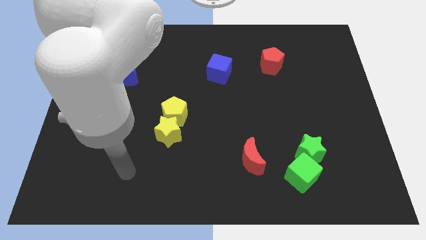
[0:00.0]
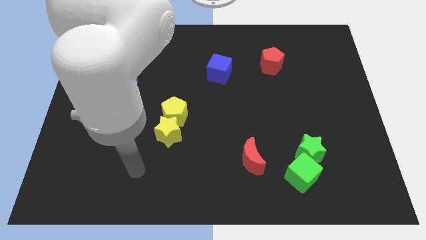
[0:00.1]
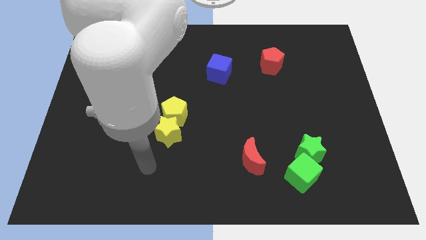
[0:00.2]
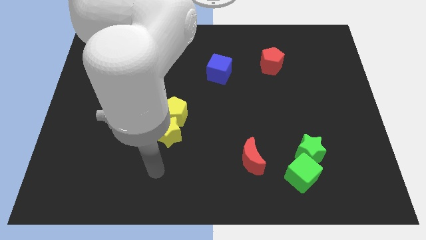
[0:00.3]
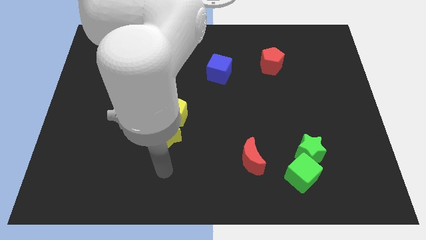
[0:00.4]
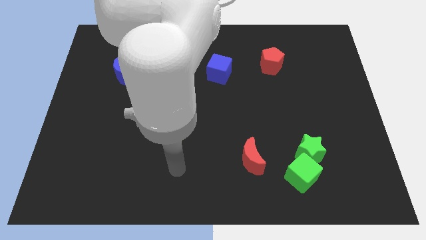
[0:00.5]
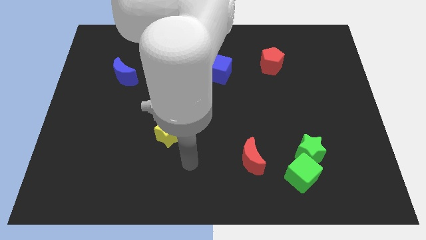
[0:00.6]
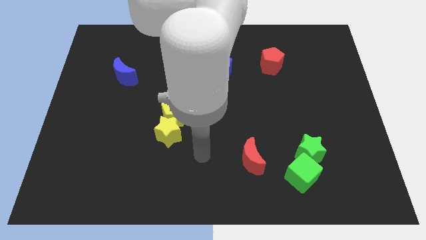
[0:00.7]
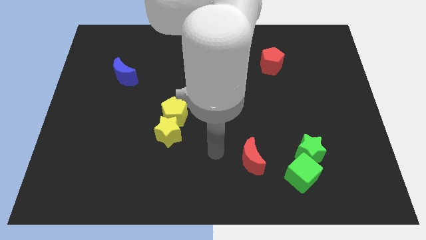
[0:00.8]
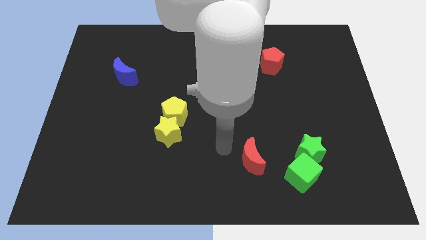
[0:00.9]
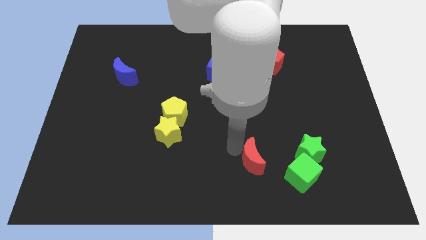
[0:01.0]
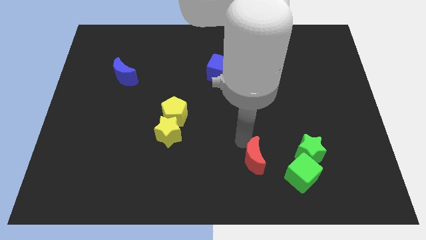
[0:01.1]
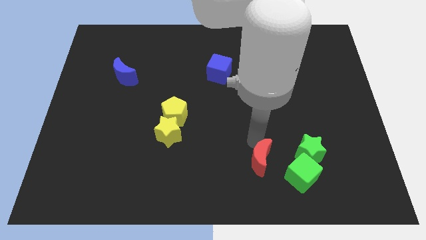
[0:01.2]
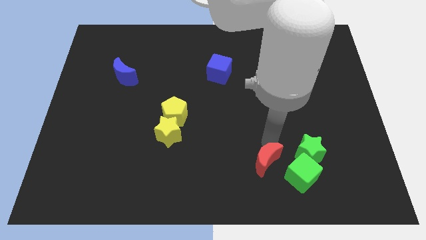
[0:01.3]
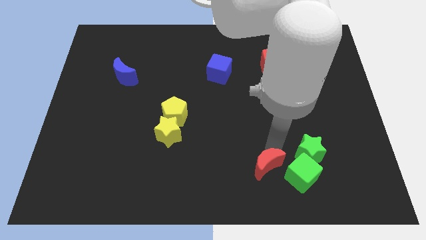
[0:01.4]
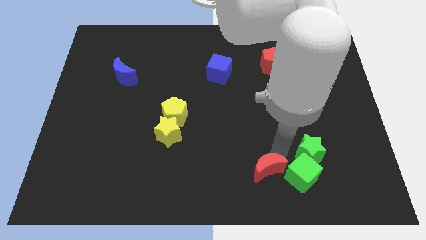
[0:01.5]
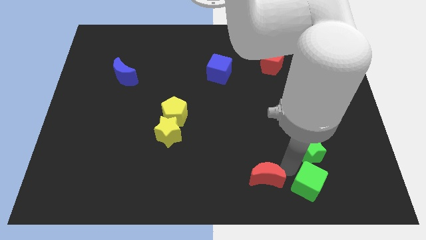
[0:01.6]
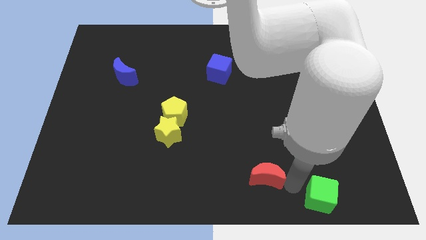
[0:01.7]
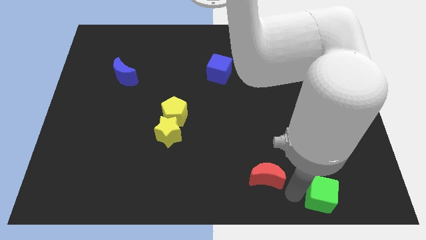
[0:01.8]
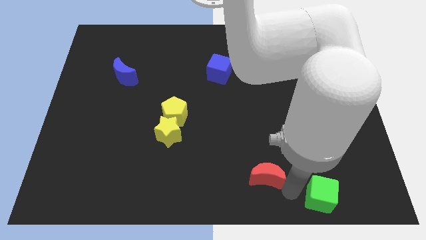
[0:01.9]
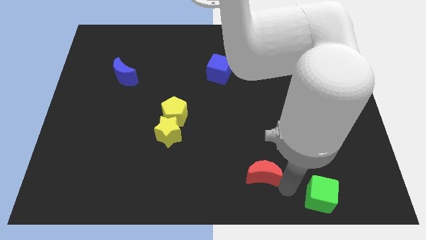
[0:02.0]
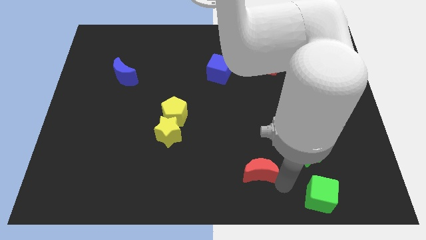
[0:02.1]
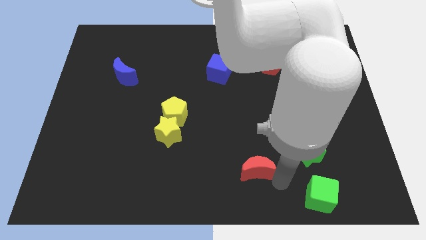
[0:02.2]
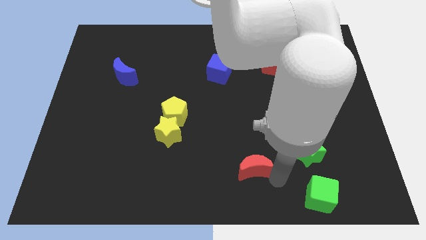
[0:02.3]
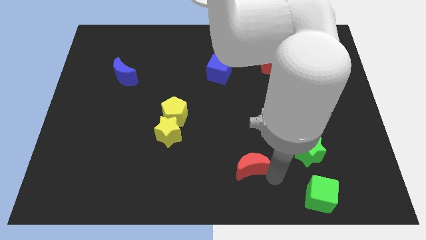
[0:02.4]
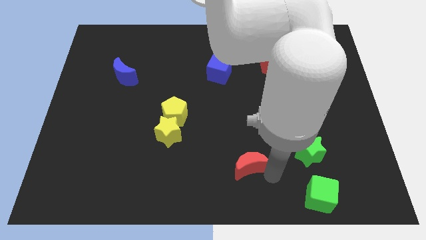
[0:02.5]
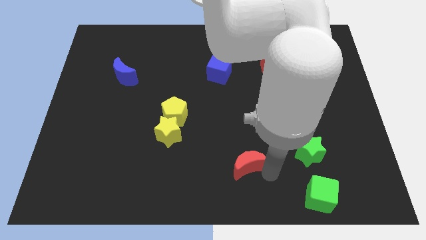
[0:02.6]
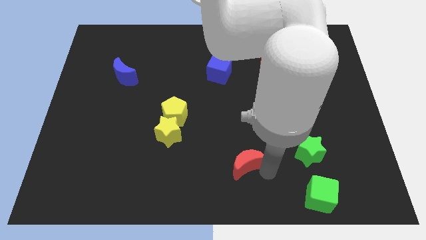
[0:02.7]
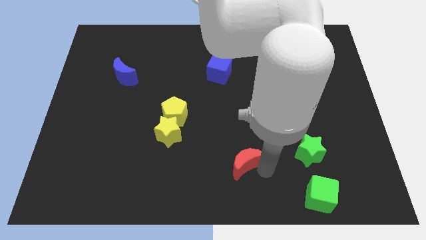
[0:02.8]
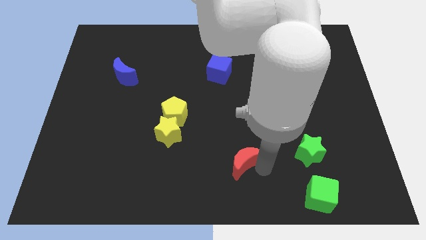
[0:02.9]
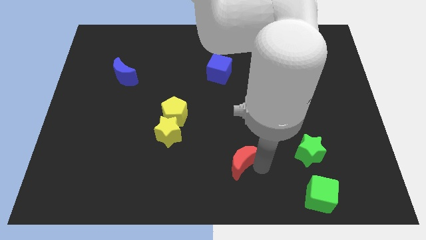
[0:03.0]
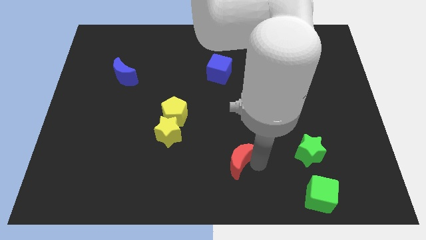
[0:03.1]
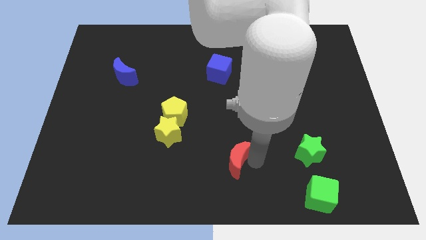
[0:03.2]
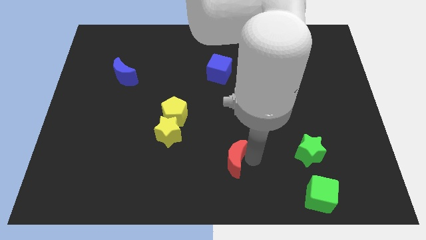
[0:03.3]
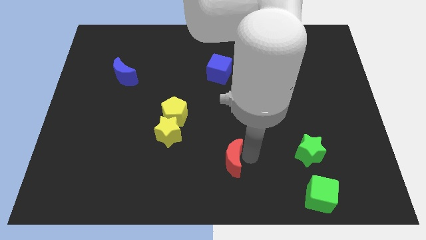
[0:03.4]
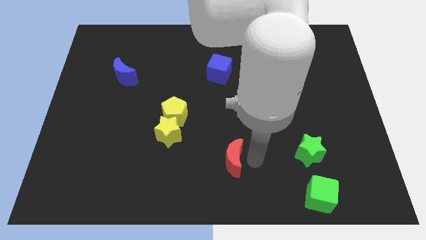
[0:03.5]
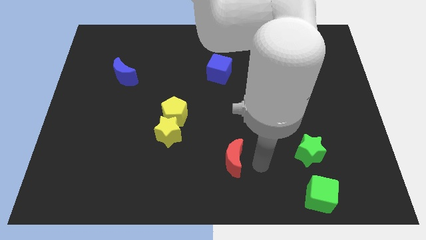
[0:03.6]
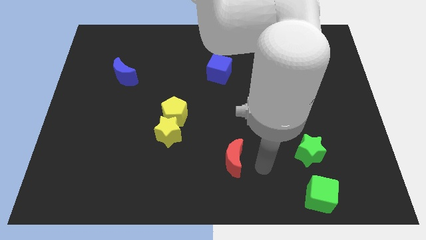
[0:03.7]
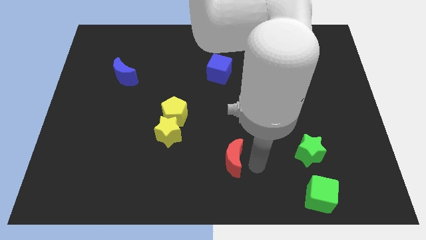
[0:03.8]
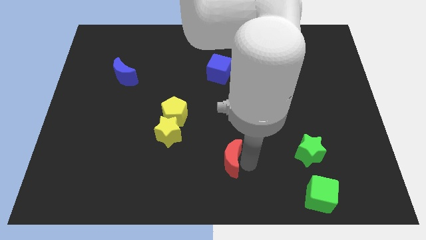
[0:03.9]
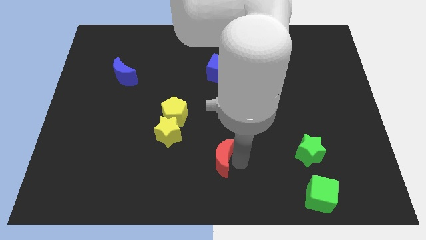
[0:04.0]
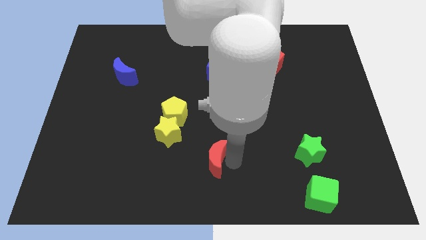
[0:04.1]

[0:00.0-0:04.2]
move the red moon somewhat to the left

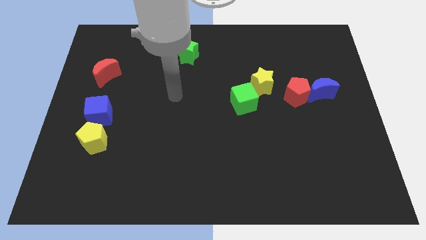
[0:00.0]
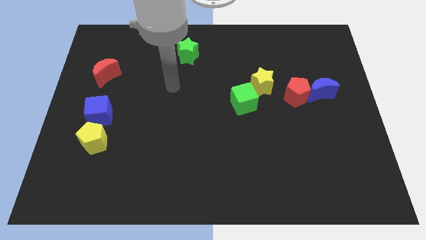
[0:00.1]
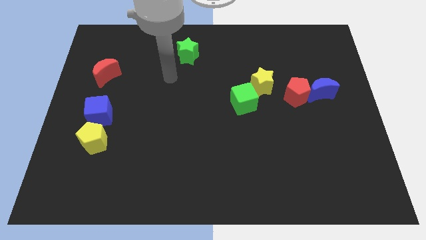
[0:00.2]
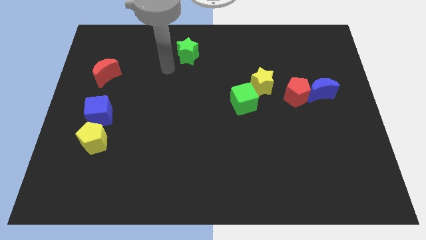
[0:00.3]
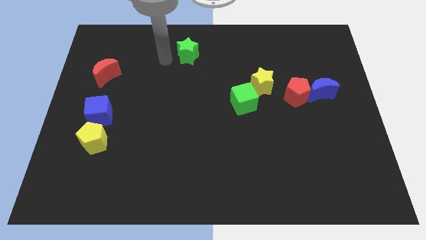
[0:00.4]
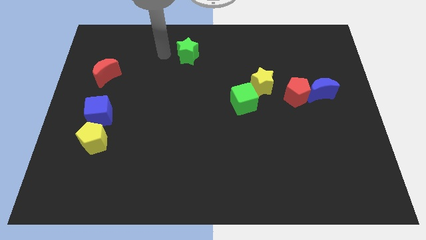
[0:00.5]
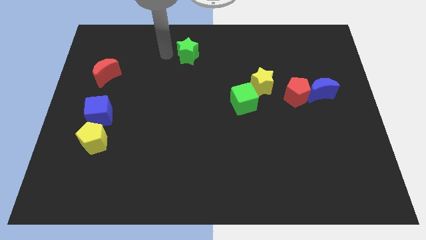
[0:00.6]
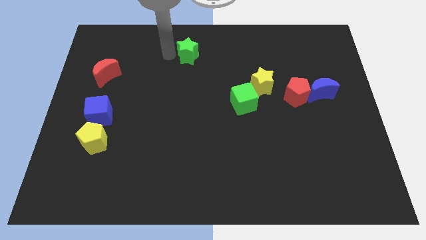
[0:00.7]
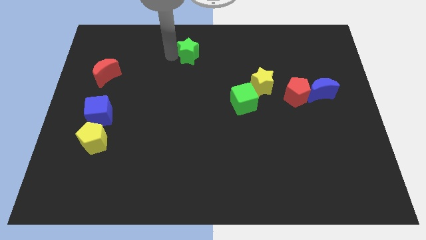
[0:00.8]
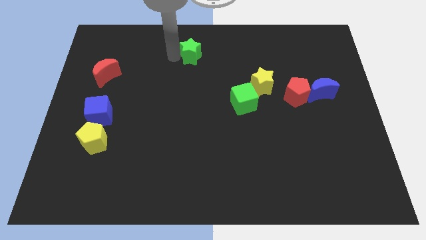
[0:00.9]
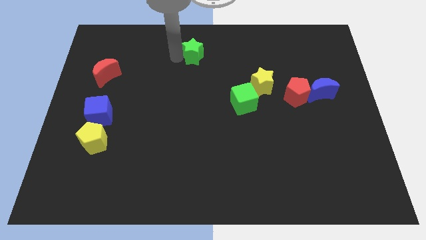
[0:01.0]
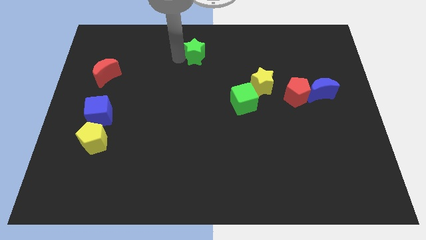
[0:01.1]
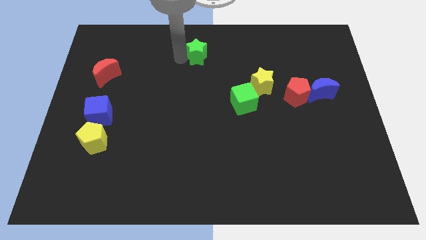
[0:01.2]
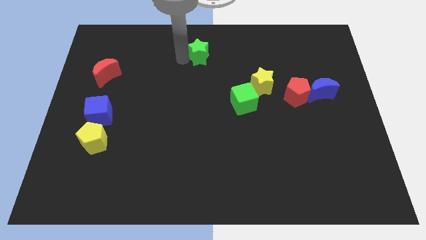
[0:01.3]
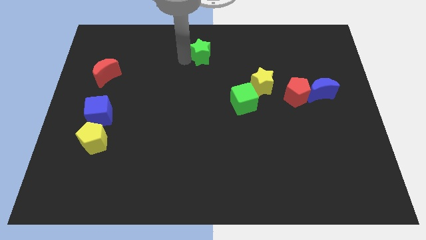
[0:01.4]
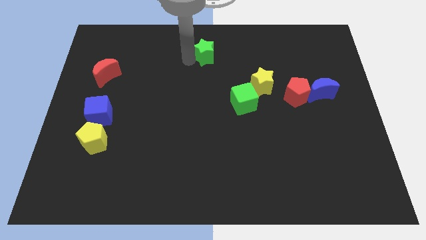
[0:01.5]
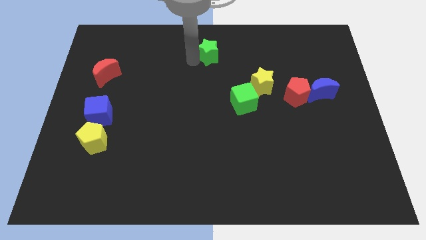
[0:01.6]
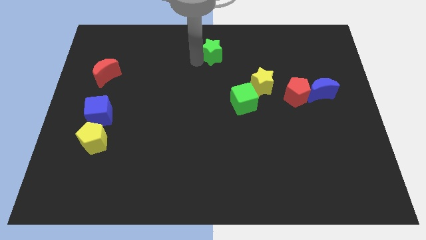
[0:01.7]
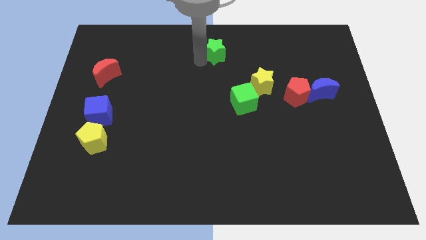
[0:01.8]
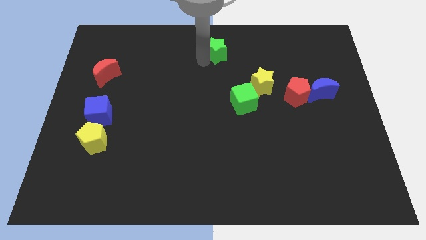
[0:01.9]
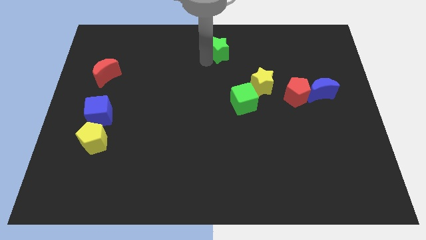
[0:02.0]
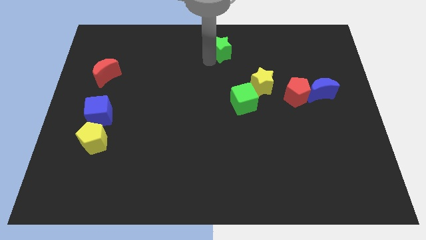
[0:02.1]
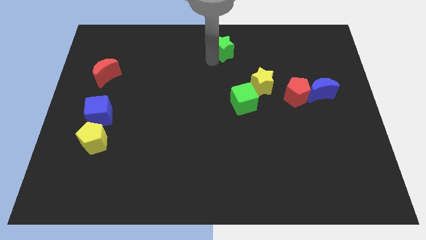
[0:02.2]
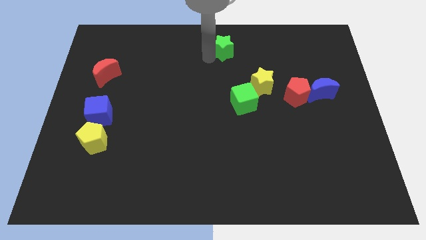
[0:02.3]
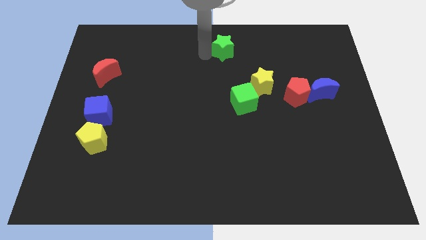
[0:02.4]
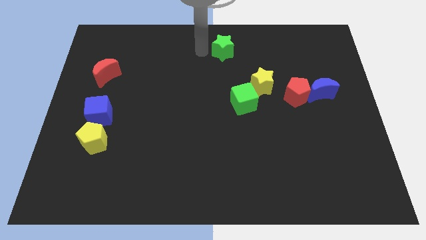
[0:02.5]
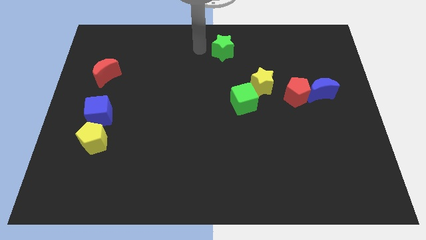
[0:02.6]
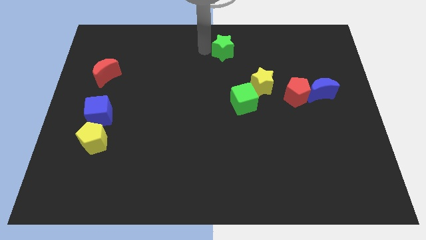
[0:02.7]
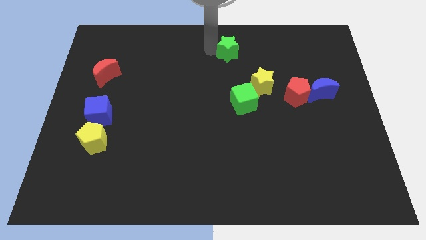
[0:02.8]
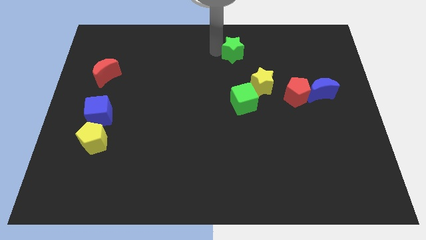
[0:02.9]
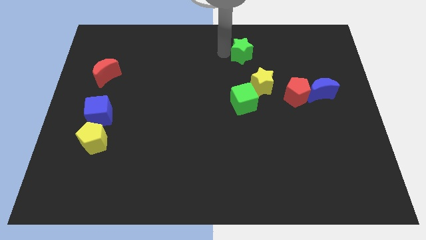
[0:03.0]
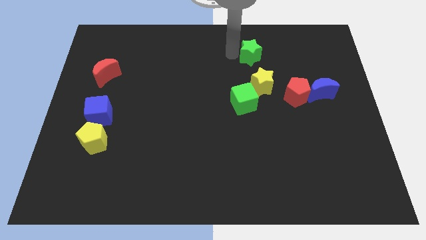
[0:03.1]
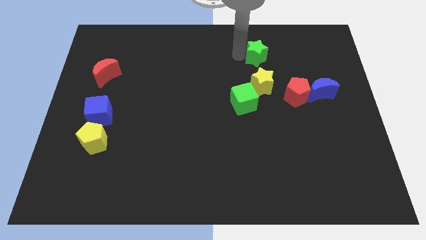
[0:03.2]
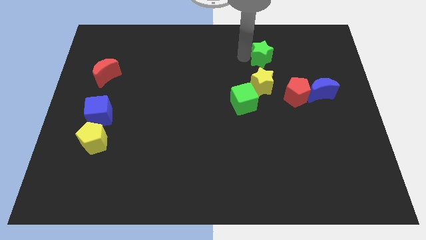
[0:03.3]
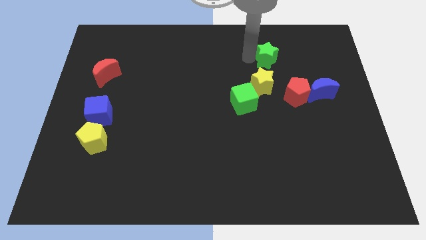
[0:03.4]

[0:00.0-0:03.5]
push the green star to the right

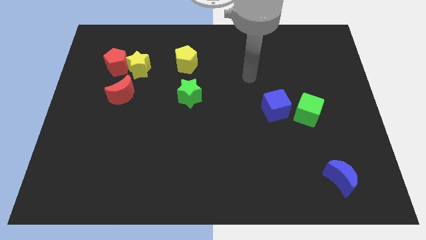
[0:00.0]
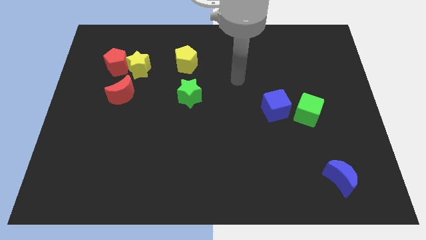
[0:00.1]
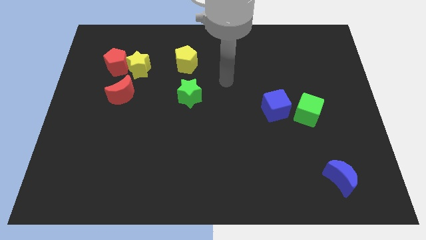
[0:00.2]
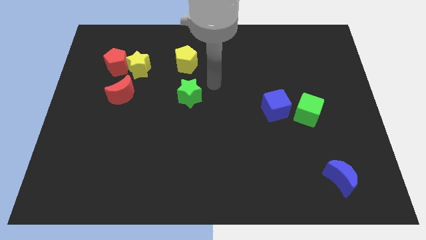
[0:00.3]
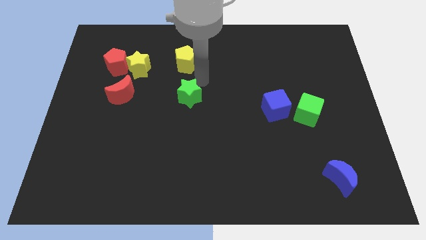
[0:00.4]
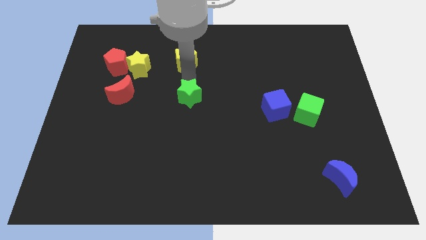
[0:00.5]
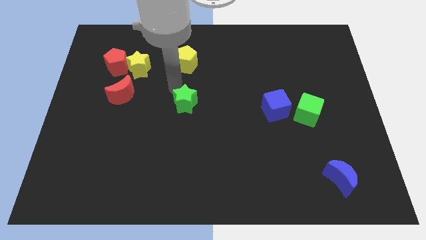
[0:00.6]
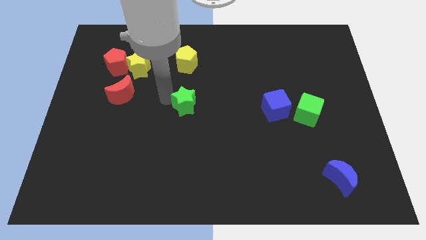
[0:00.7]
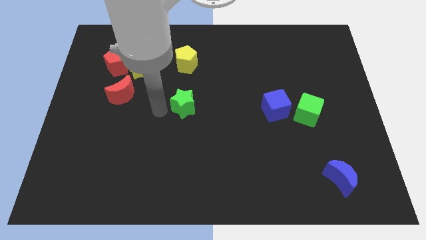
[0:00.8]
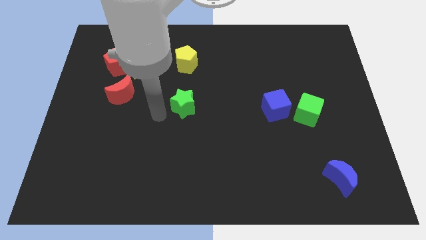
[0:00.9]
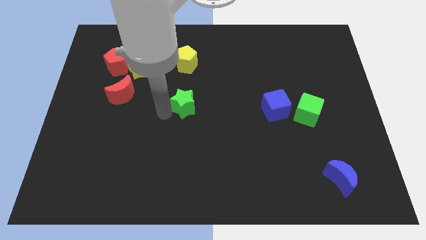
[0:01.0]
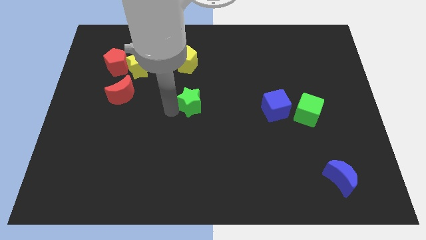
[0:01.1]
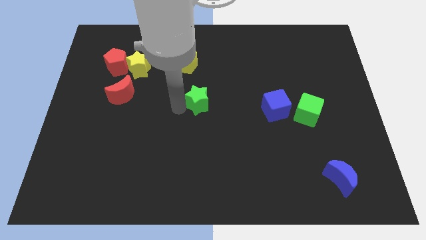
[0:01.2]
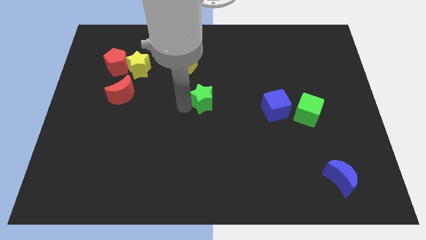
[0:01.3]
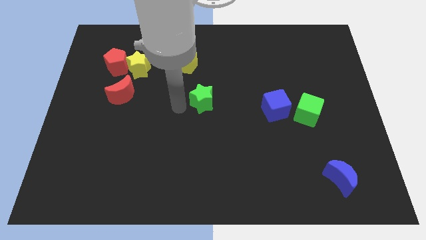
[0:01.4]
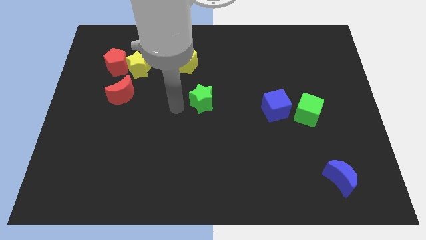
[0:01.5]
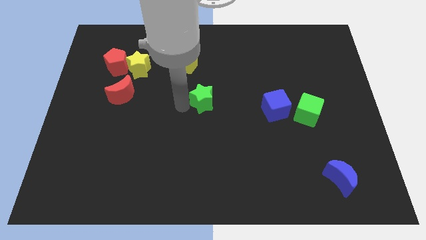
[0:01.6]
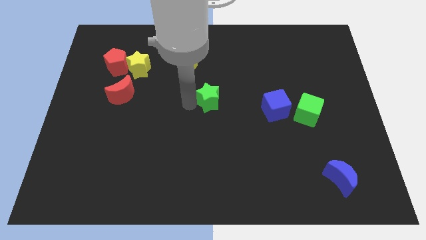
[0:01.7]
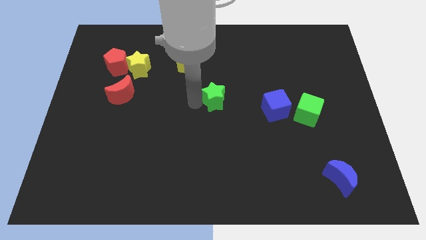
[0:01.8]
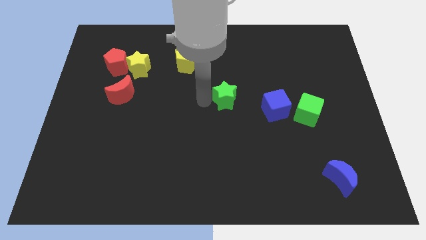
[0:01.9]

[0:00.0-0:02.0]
slightly slide the green star to the right
